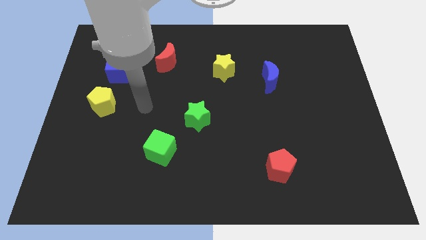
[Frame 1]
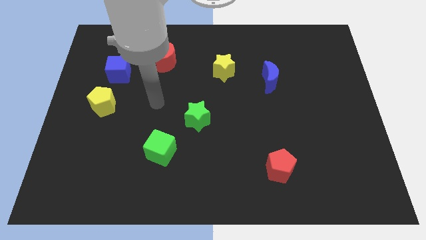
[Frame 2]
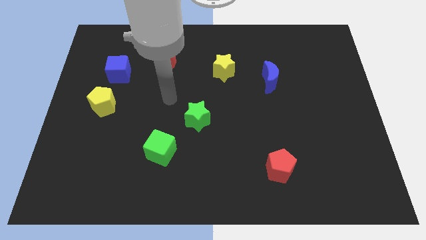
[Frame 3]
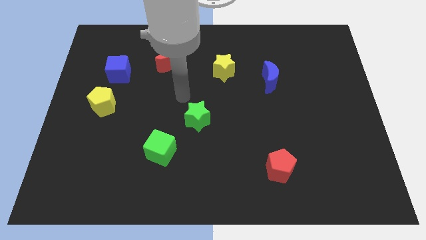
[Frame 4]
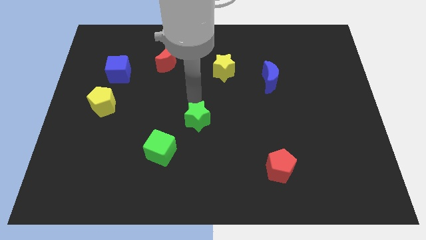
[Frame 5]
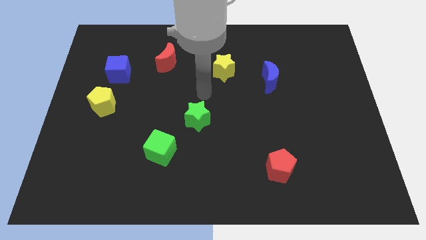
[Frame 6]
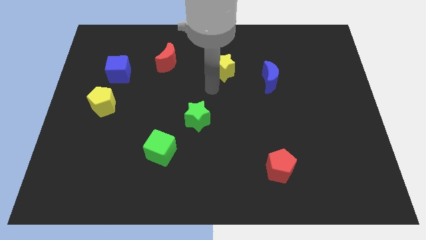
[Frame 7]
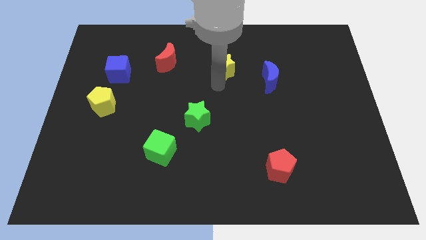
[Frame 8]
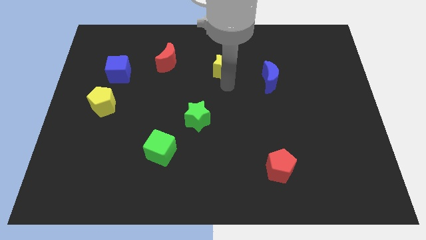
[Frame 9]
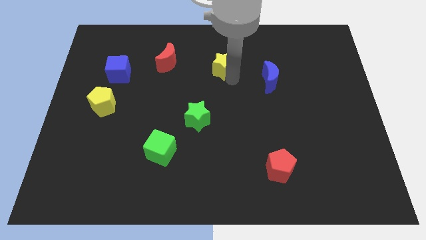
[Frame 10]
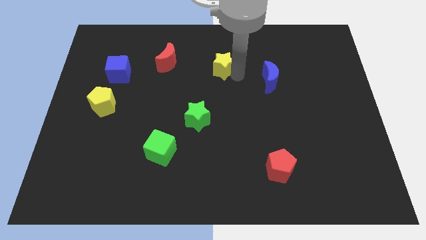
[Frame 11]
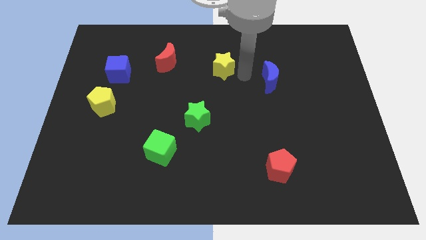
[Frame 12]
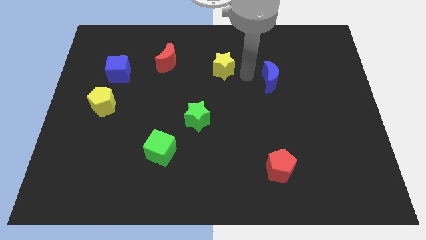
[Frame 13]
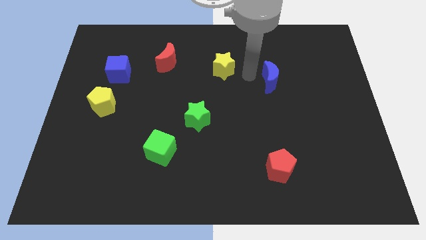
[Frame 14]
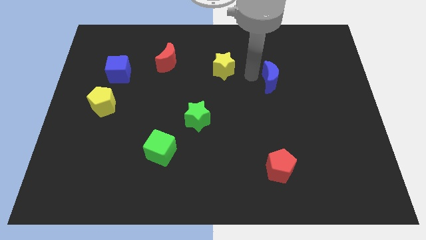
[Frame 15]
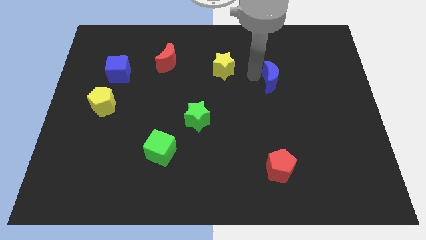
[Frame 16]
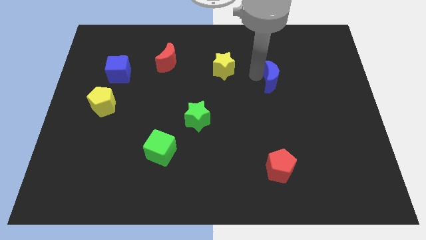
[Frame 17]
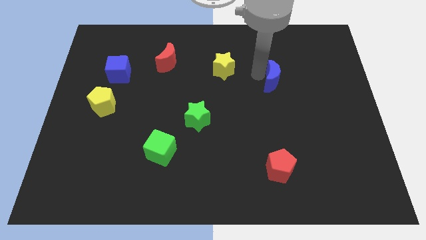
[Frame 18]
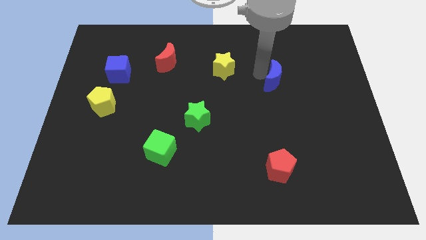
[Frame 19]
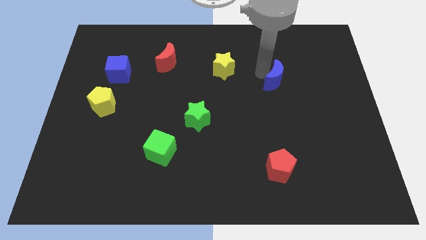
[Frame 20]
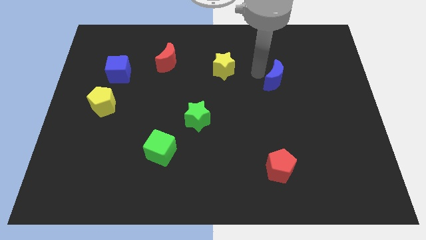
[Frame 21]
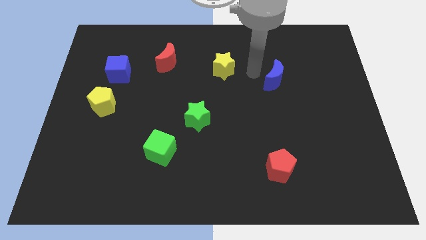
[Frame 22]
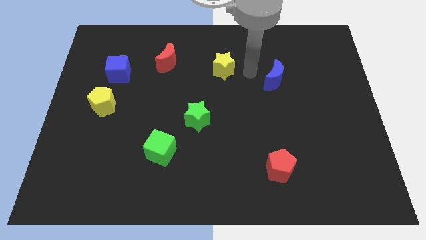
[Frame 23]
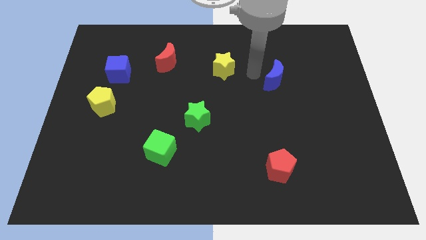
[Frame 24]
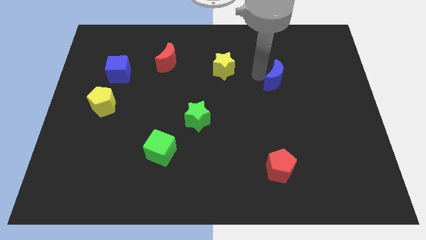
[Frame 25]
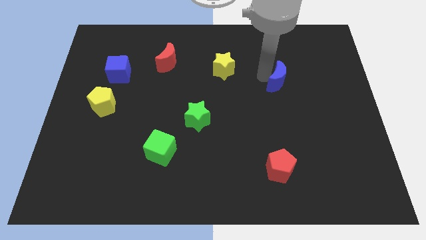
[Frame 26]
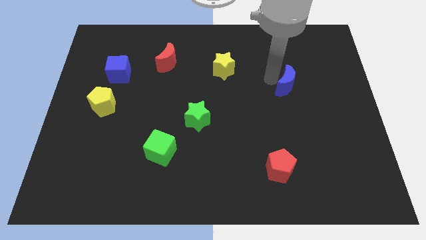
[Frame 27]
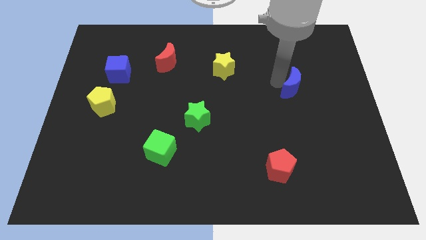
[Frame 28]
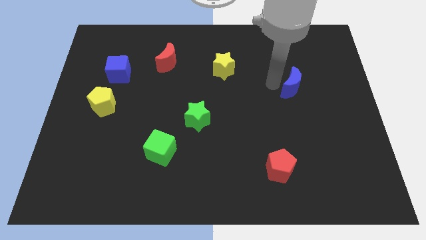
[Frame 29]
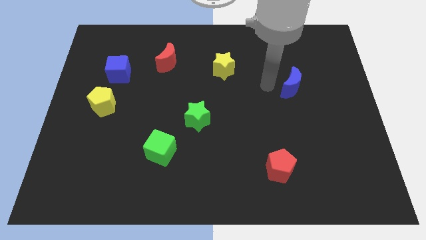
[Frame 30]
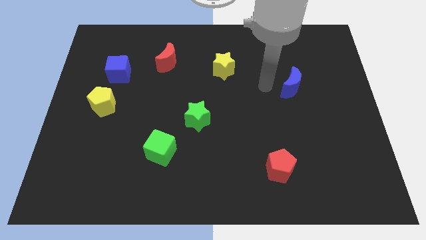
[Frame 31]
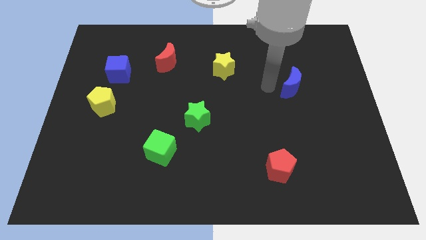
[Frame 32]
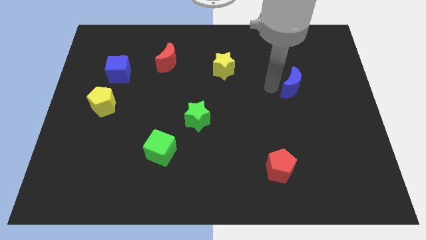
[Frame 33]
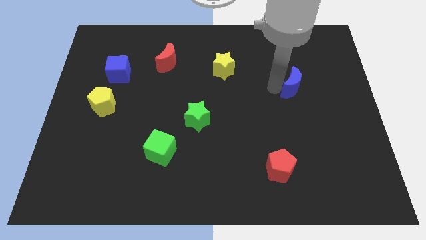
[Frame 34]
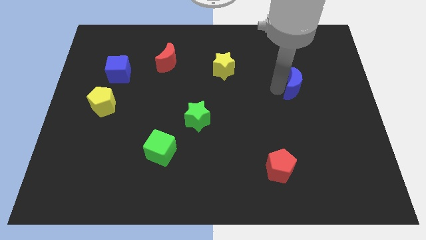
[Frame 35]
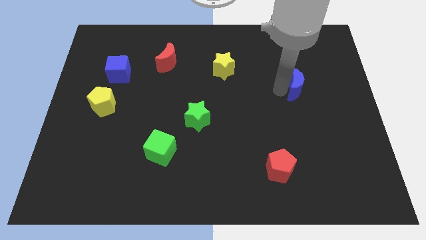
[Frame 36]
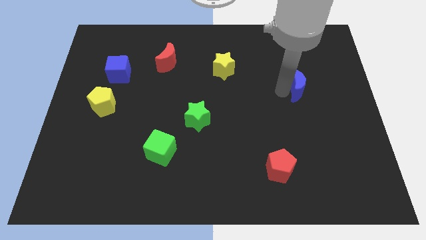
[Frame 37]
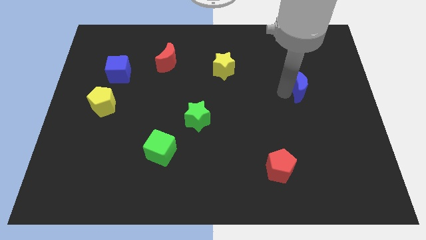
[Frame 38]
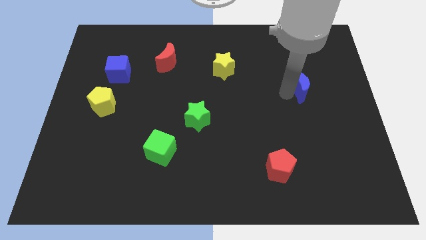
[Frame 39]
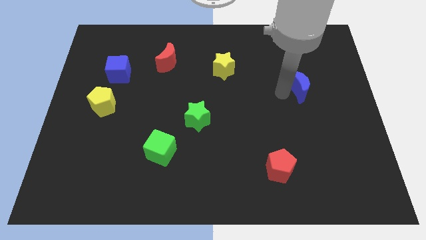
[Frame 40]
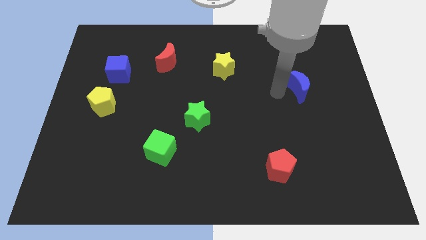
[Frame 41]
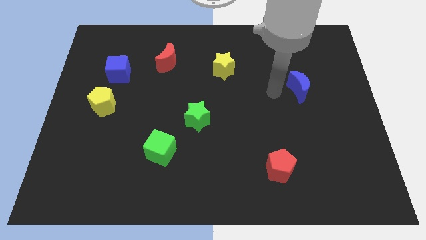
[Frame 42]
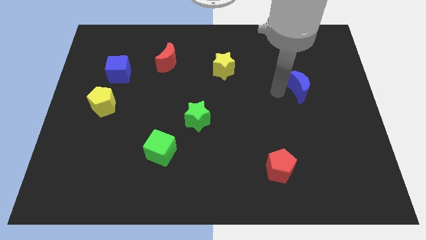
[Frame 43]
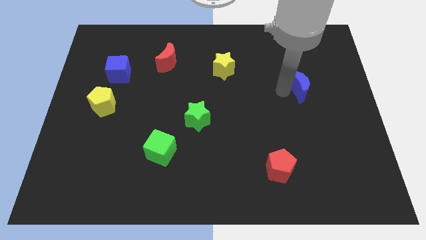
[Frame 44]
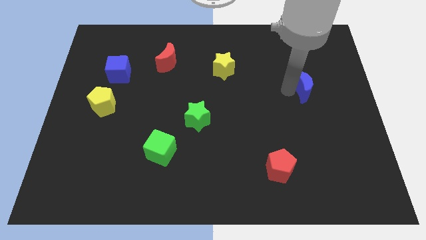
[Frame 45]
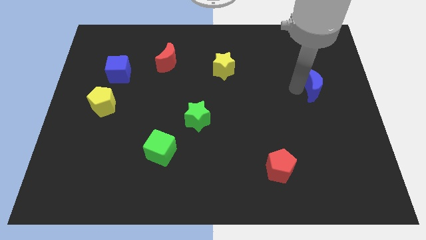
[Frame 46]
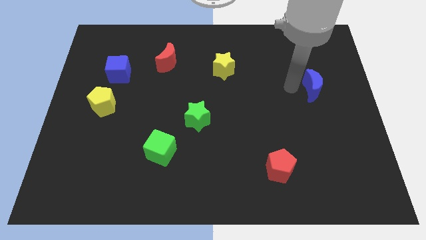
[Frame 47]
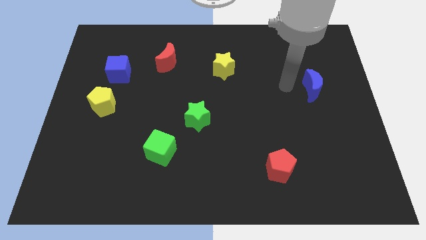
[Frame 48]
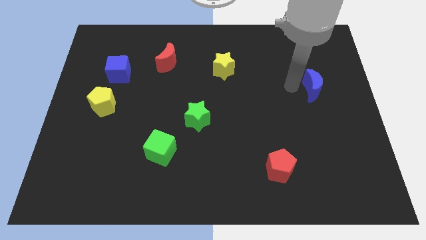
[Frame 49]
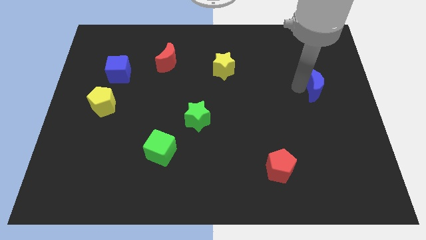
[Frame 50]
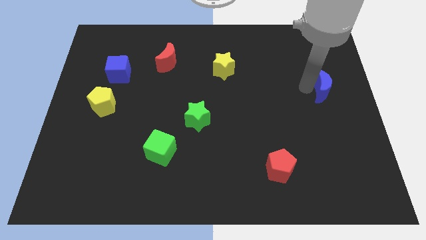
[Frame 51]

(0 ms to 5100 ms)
put the blue moon to the right side of the board
